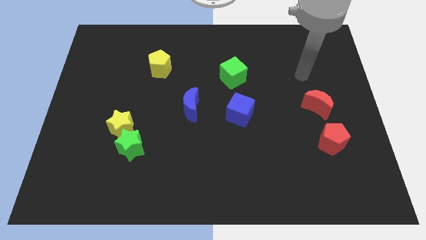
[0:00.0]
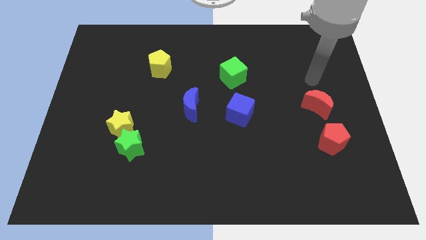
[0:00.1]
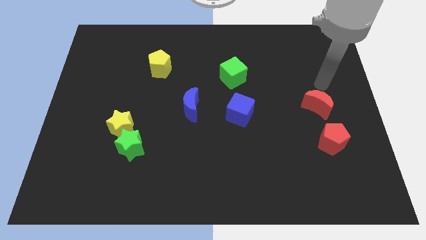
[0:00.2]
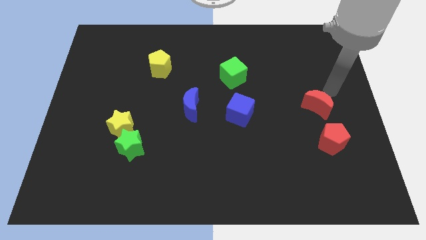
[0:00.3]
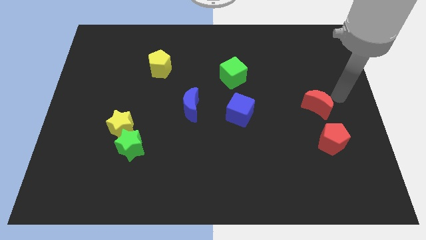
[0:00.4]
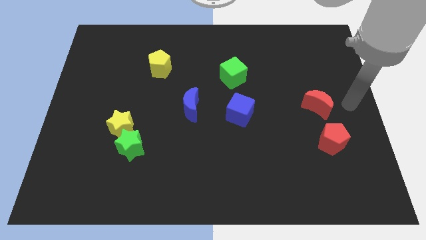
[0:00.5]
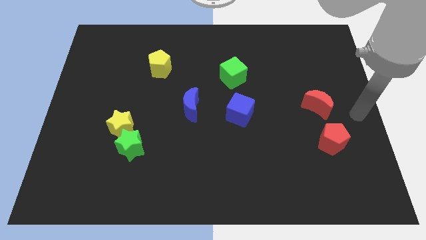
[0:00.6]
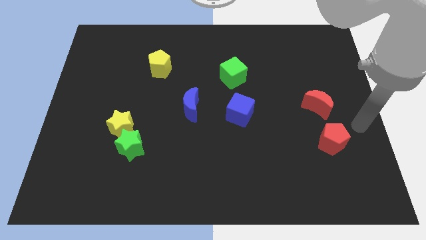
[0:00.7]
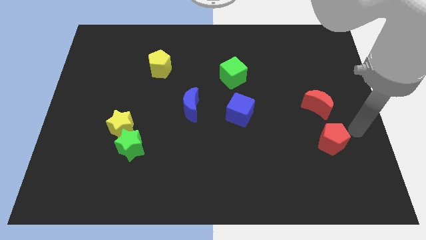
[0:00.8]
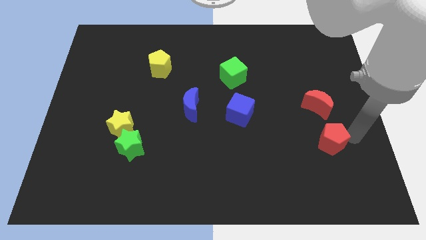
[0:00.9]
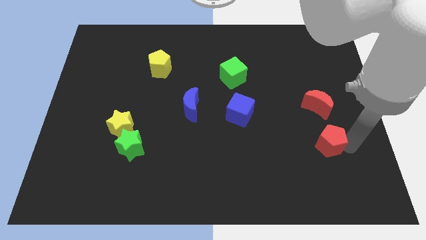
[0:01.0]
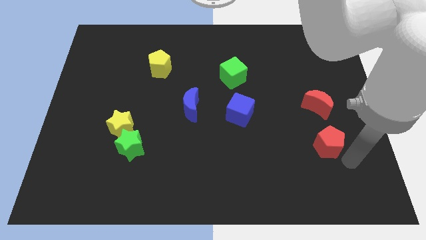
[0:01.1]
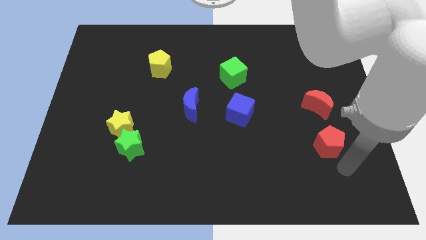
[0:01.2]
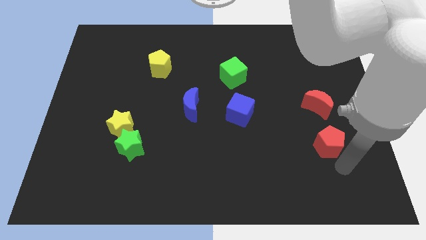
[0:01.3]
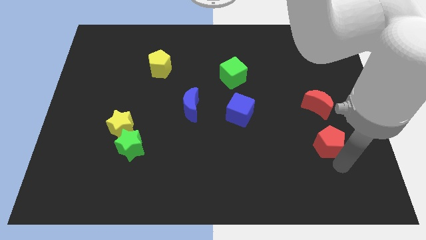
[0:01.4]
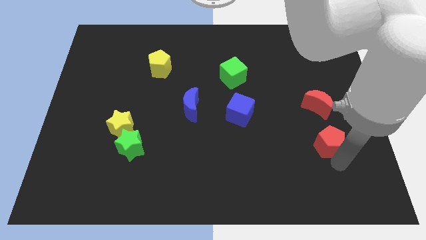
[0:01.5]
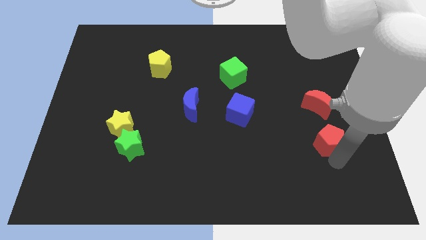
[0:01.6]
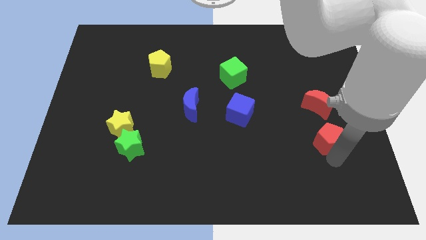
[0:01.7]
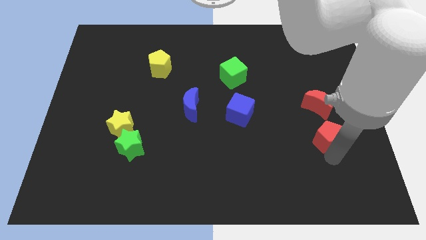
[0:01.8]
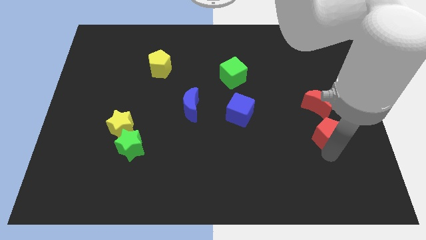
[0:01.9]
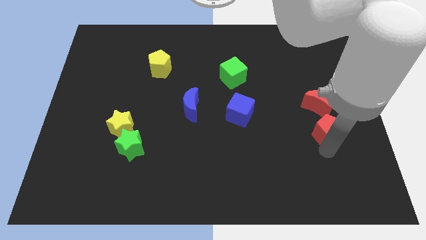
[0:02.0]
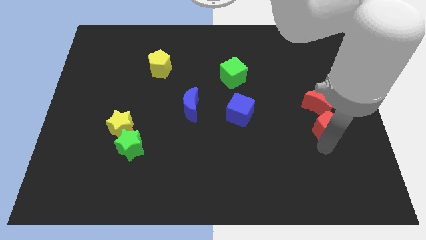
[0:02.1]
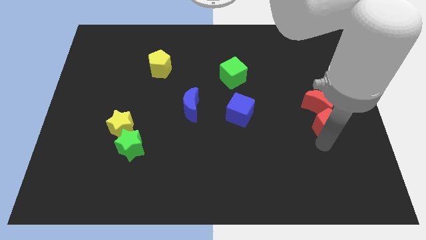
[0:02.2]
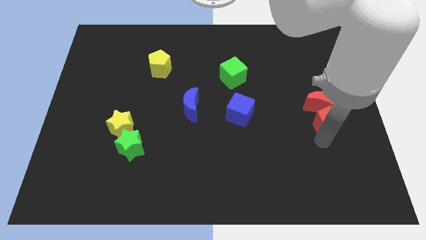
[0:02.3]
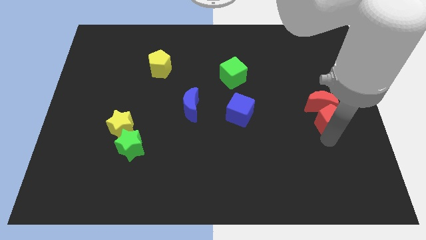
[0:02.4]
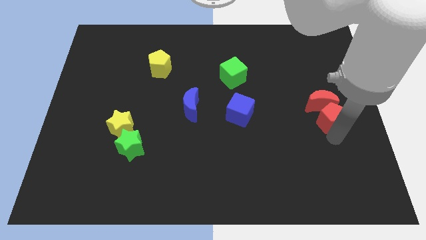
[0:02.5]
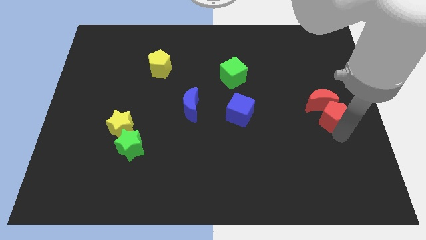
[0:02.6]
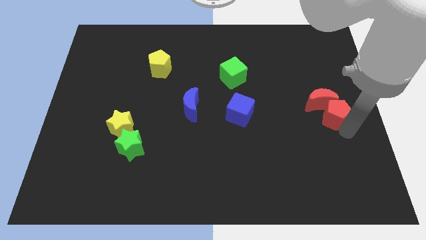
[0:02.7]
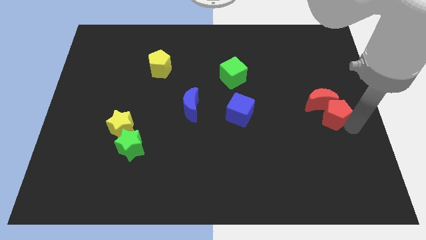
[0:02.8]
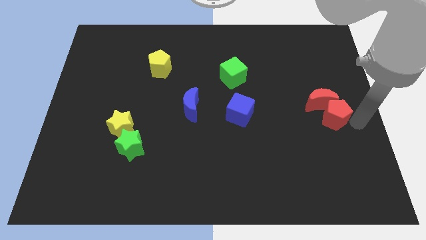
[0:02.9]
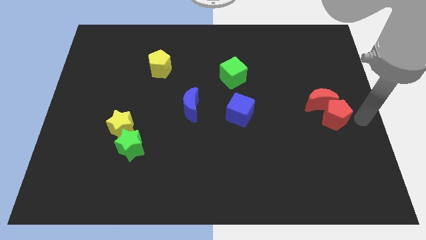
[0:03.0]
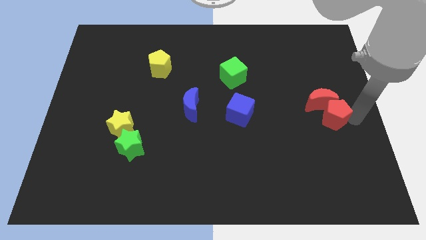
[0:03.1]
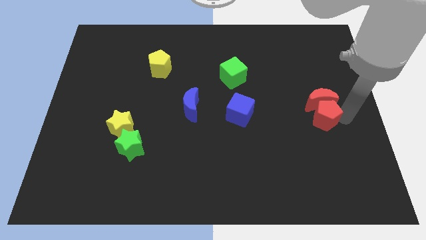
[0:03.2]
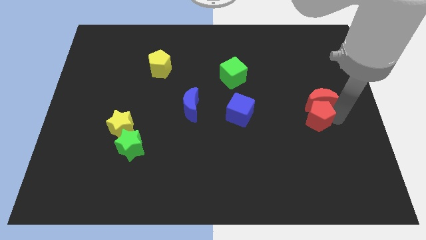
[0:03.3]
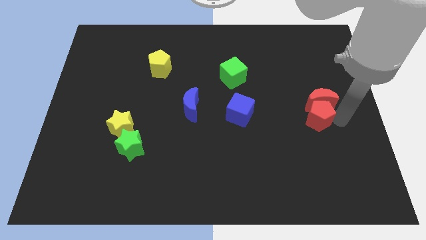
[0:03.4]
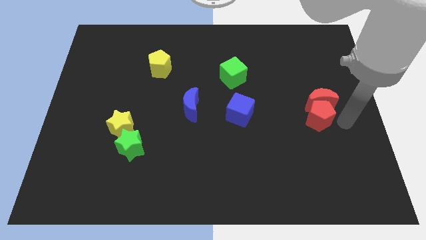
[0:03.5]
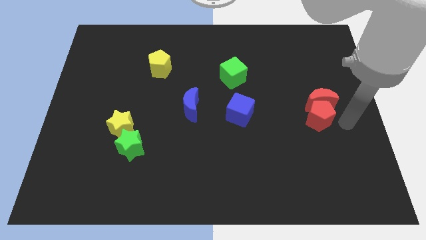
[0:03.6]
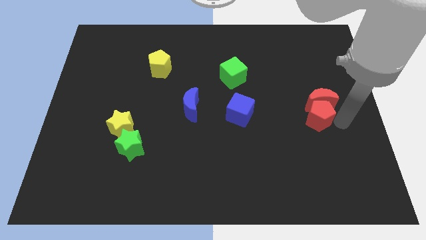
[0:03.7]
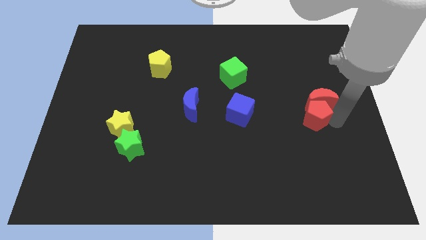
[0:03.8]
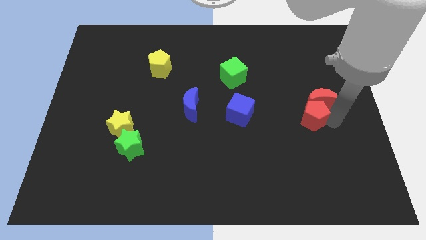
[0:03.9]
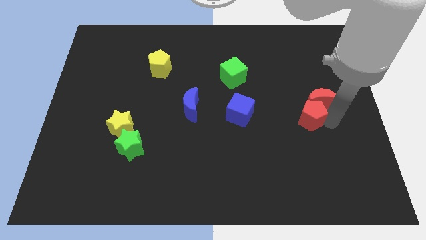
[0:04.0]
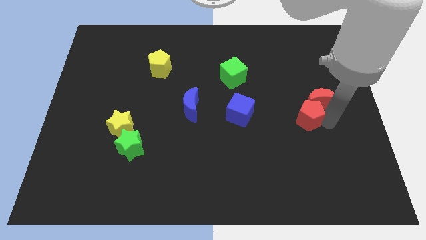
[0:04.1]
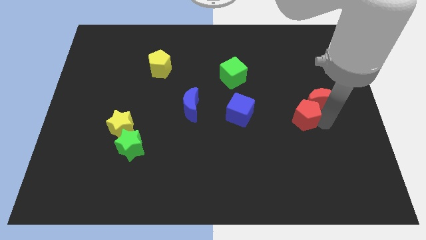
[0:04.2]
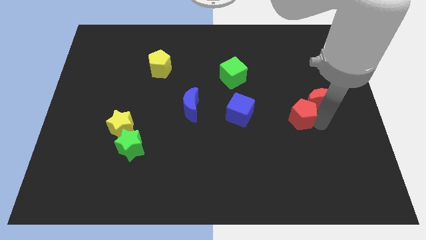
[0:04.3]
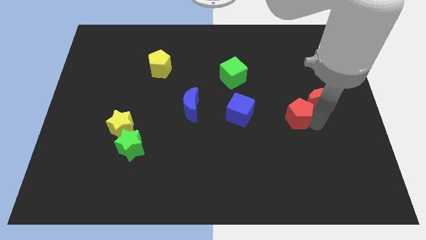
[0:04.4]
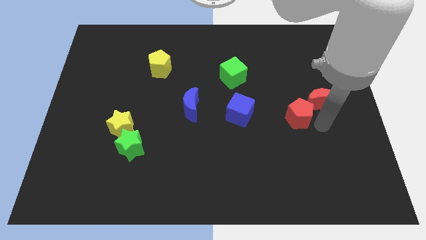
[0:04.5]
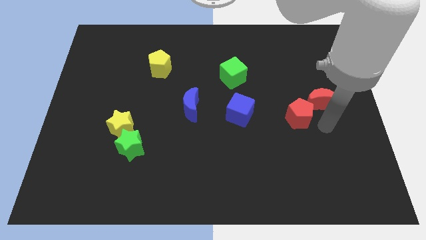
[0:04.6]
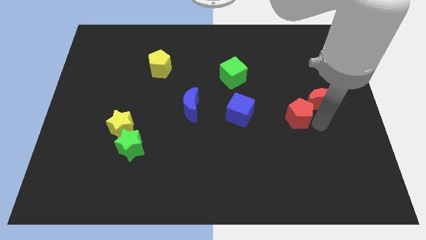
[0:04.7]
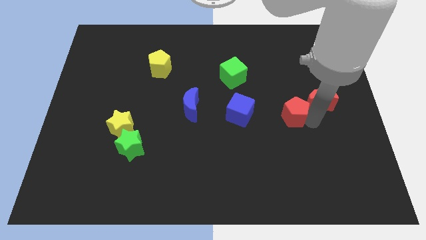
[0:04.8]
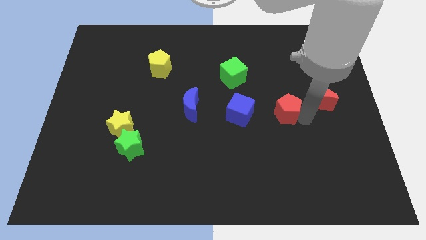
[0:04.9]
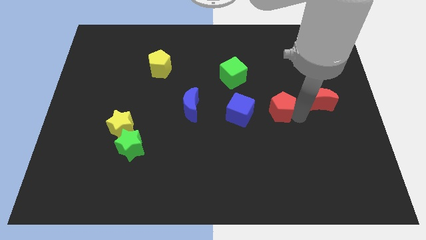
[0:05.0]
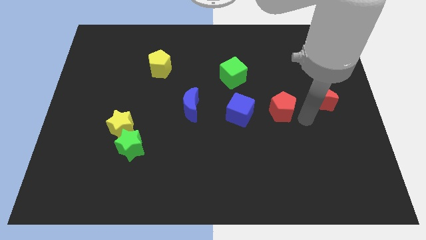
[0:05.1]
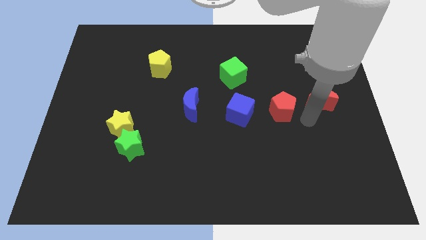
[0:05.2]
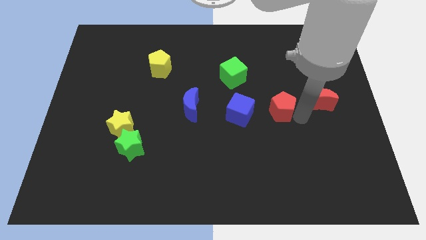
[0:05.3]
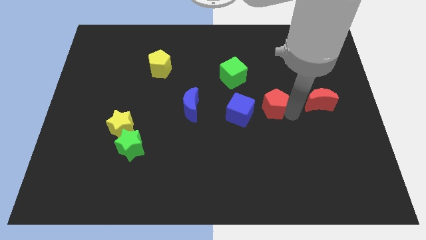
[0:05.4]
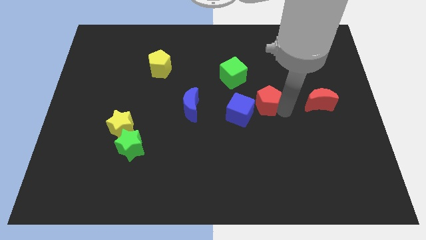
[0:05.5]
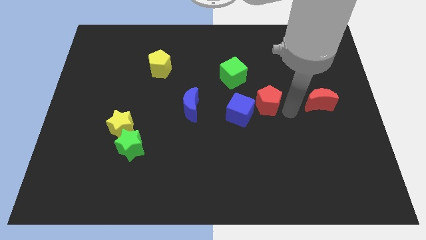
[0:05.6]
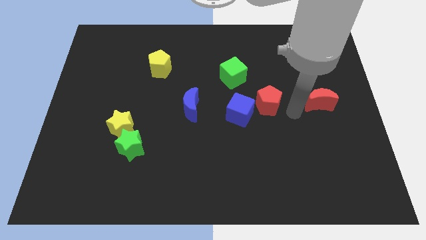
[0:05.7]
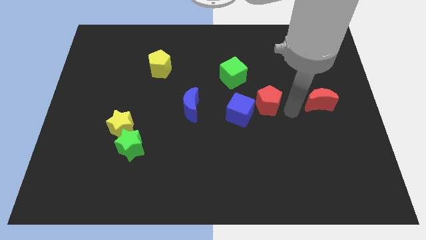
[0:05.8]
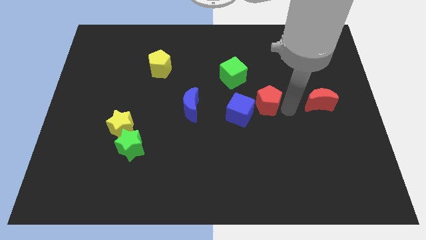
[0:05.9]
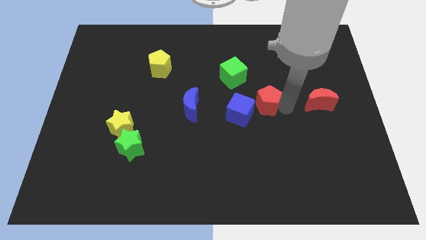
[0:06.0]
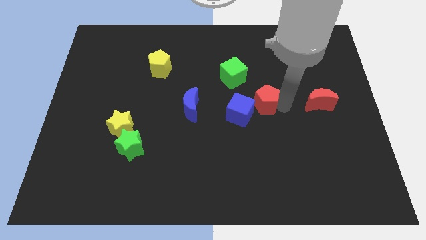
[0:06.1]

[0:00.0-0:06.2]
move the red pentagon to the center
